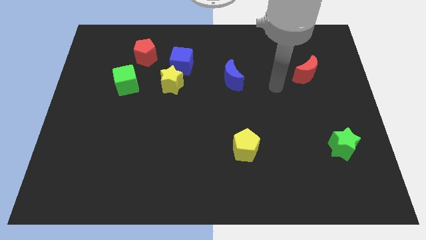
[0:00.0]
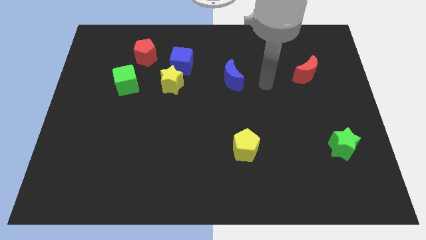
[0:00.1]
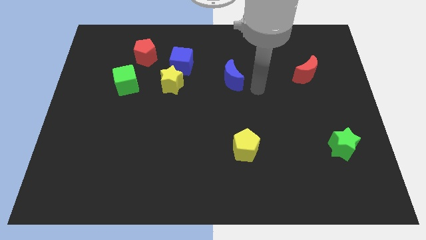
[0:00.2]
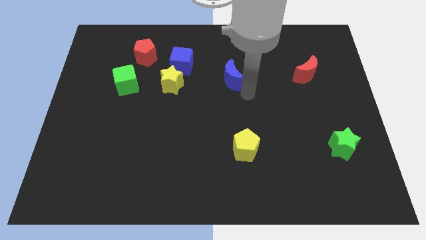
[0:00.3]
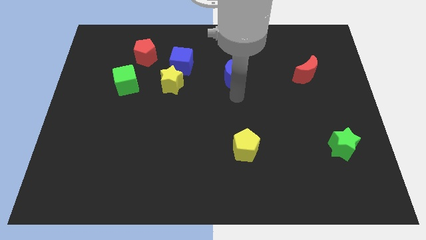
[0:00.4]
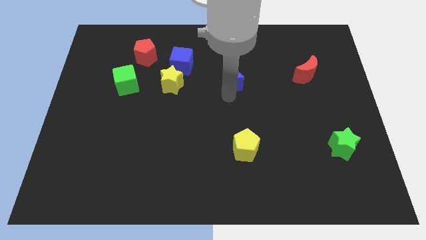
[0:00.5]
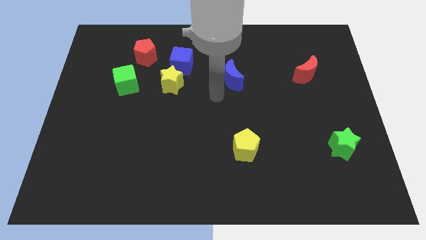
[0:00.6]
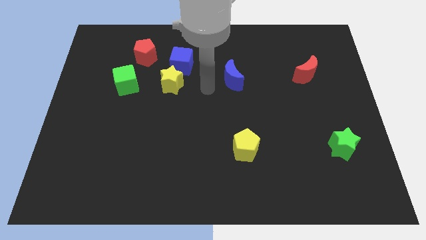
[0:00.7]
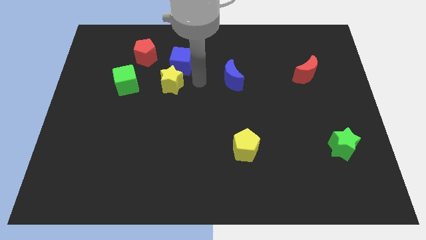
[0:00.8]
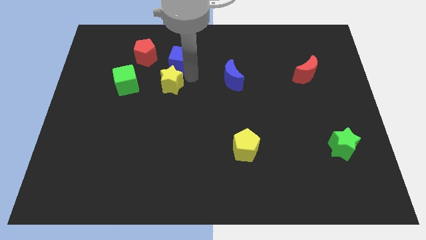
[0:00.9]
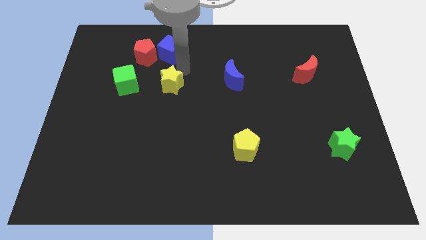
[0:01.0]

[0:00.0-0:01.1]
move the yellow star away from the blue cube

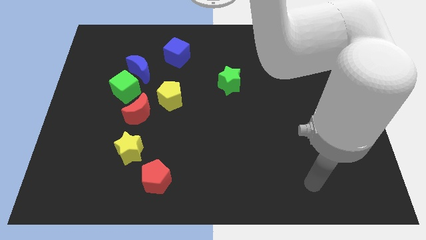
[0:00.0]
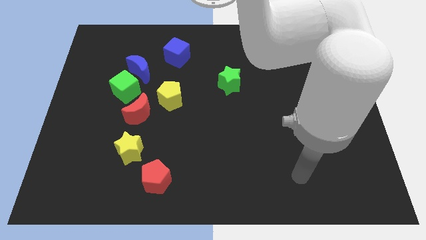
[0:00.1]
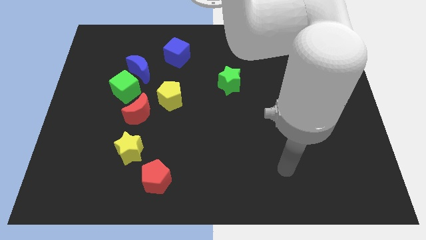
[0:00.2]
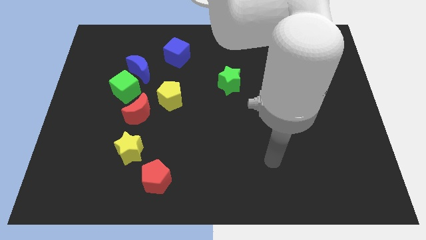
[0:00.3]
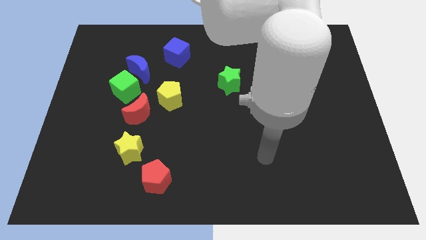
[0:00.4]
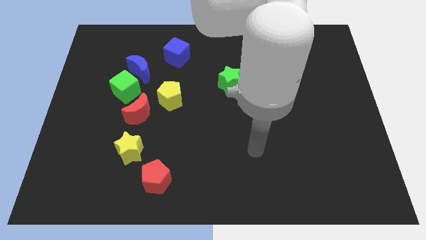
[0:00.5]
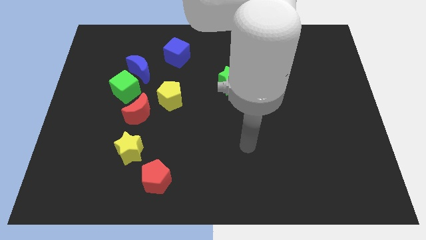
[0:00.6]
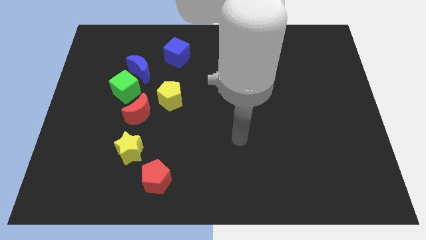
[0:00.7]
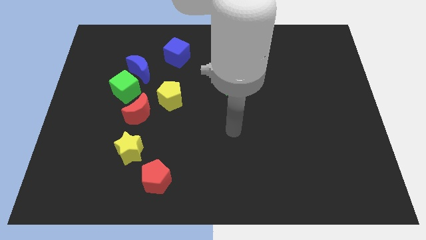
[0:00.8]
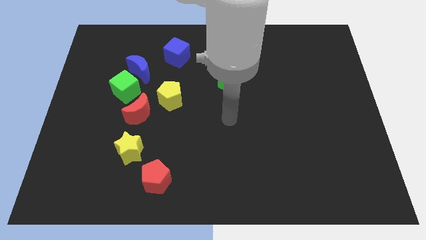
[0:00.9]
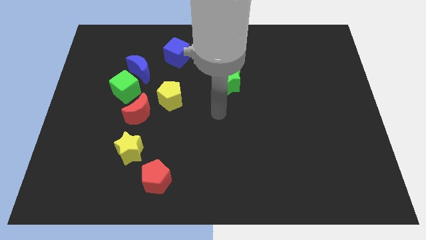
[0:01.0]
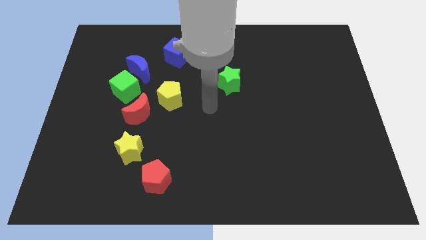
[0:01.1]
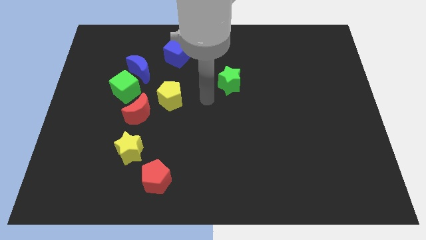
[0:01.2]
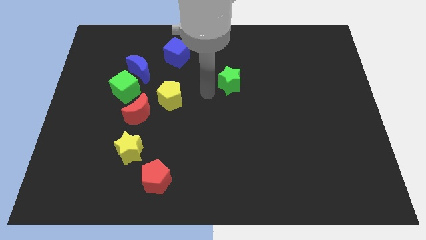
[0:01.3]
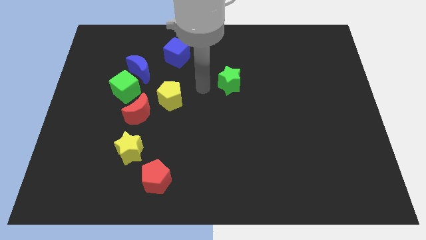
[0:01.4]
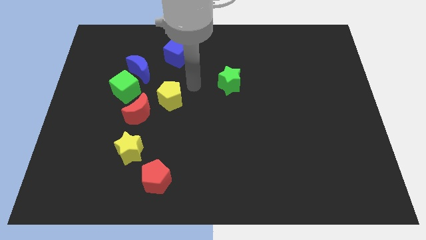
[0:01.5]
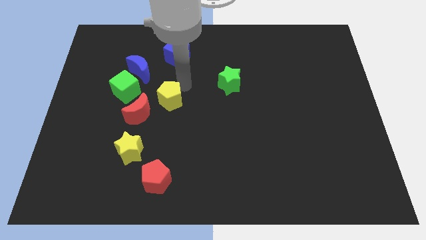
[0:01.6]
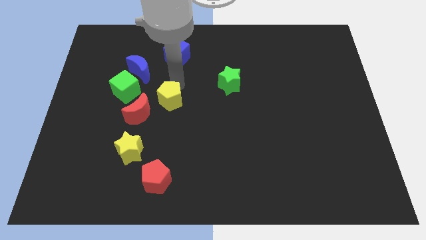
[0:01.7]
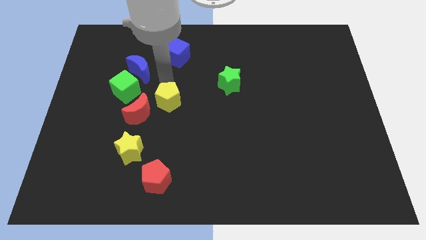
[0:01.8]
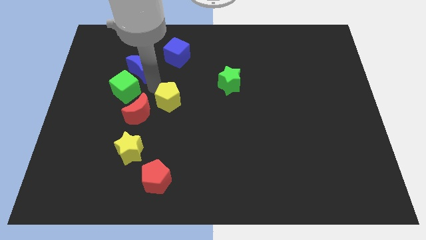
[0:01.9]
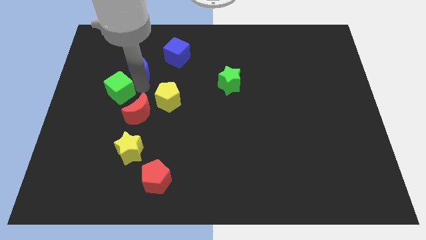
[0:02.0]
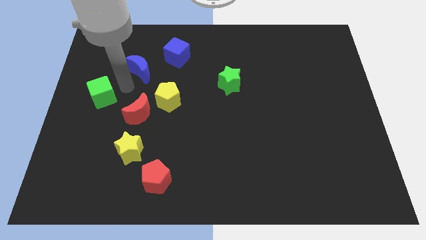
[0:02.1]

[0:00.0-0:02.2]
separate the blue moon from the green cube

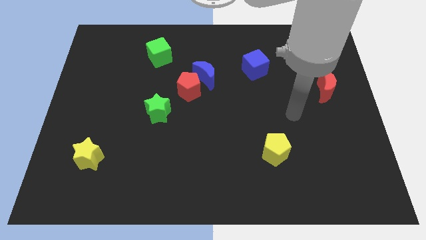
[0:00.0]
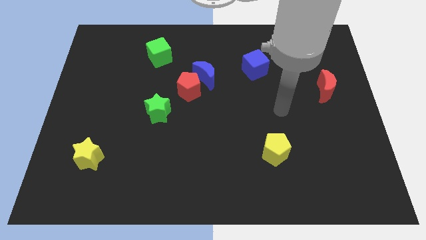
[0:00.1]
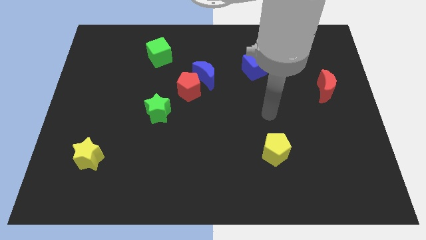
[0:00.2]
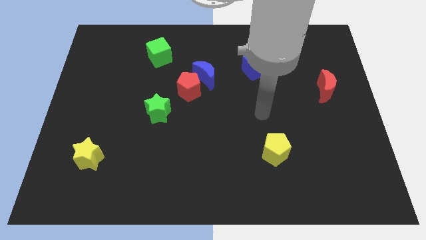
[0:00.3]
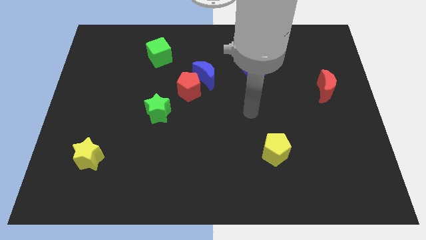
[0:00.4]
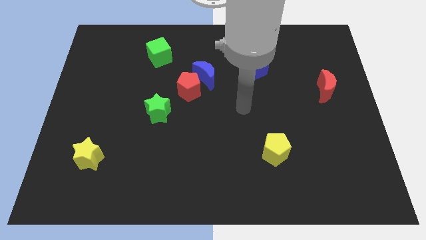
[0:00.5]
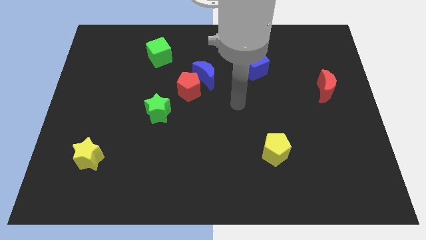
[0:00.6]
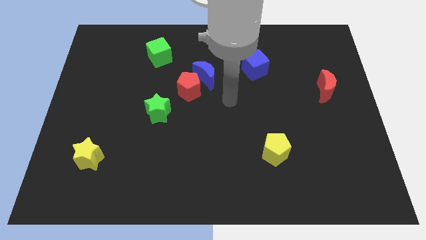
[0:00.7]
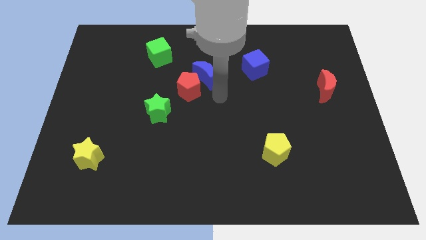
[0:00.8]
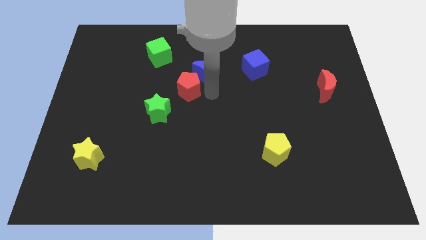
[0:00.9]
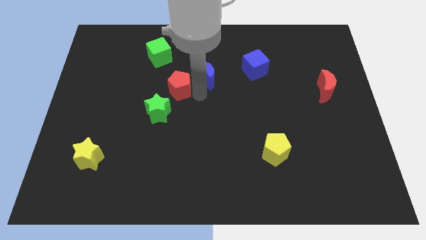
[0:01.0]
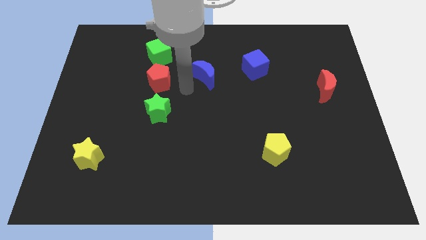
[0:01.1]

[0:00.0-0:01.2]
pull the blue moon apart from the red pentagon

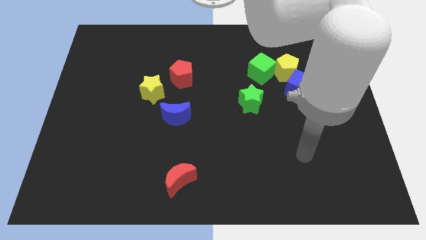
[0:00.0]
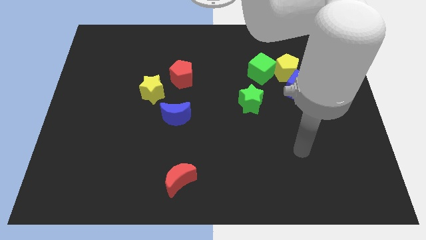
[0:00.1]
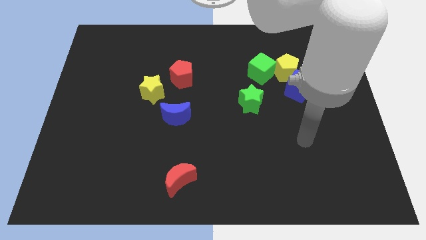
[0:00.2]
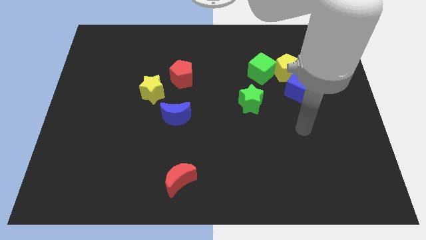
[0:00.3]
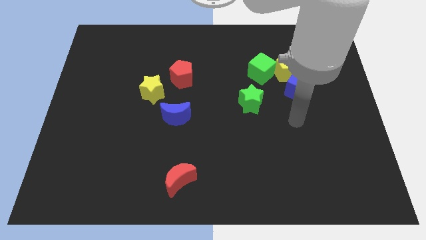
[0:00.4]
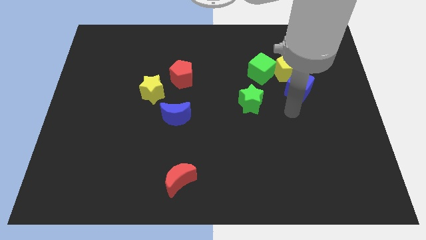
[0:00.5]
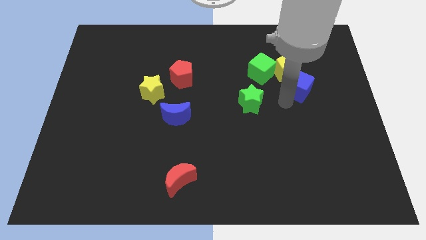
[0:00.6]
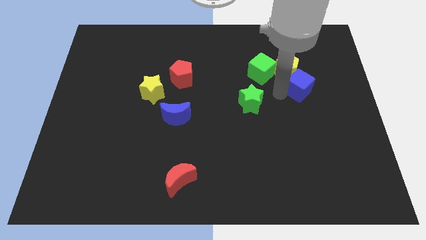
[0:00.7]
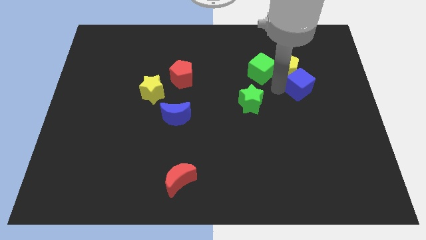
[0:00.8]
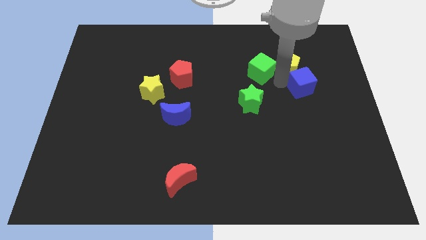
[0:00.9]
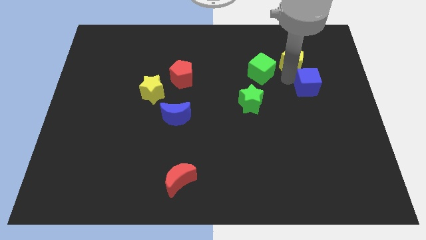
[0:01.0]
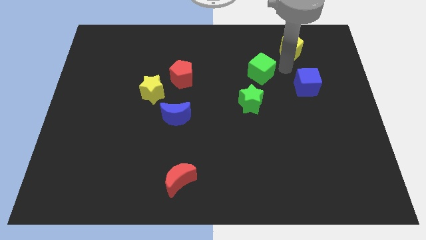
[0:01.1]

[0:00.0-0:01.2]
separate the green cube from the yellow pentagon

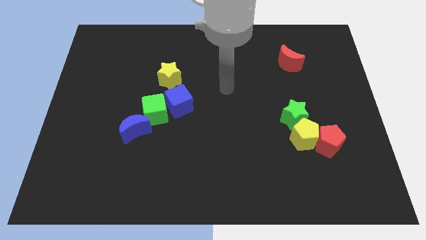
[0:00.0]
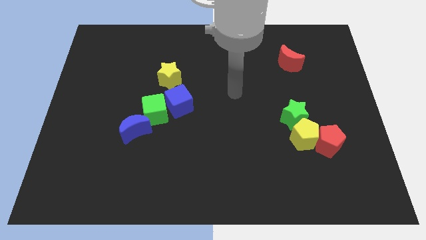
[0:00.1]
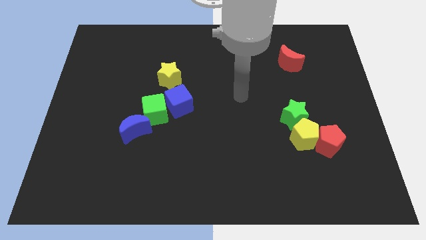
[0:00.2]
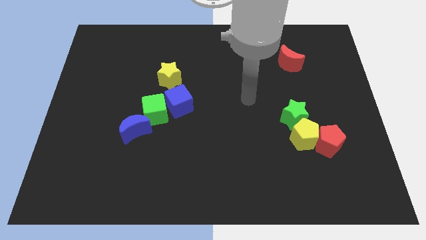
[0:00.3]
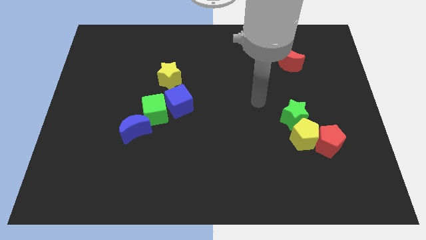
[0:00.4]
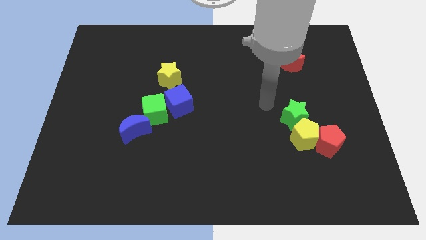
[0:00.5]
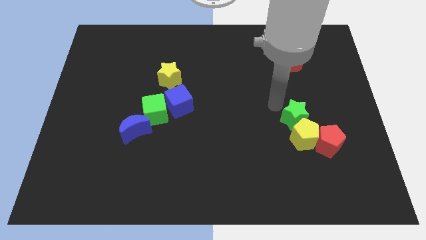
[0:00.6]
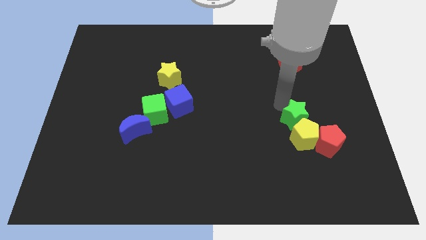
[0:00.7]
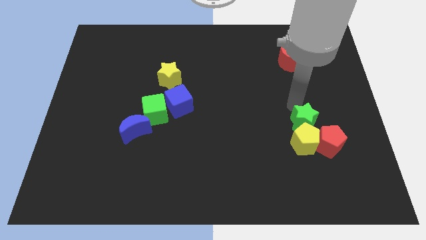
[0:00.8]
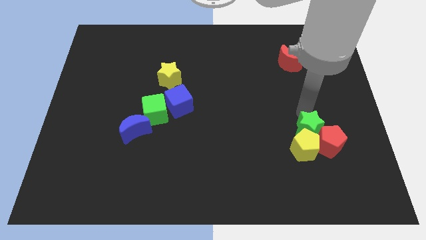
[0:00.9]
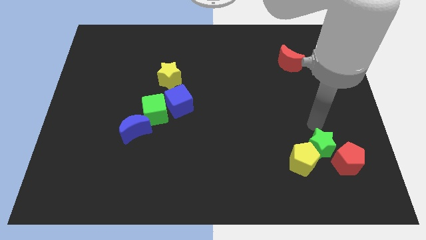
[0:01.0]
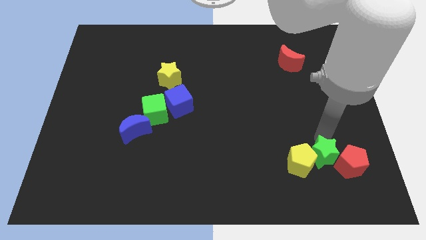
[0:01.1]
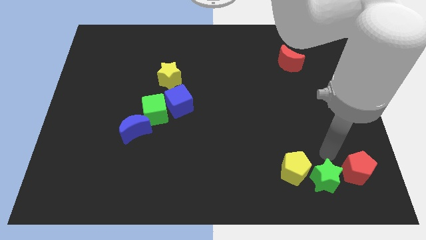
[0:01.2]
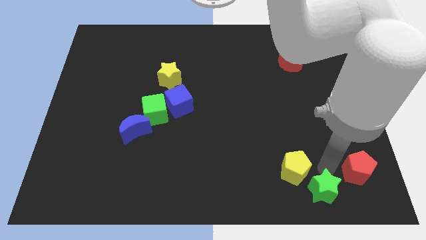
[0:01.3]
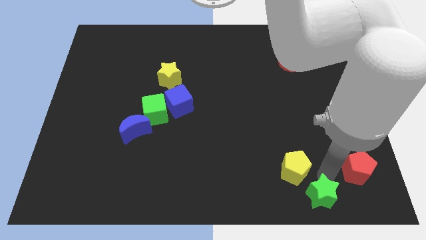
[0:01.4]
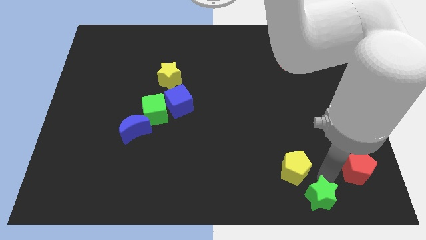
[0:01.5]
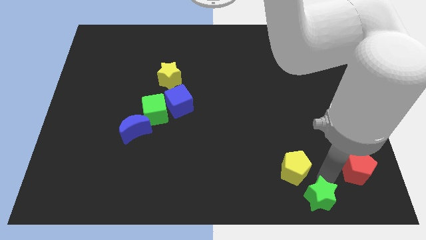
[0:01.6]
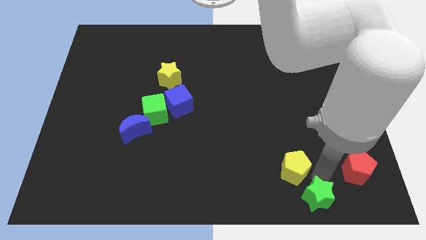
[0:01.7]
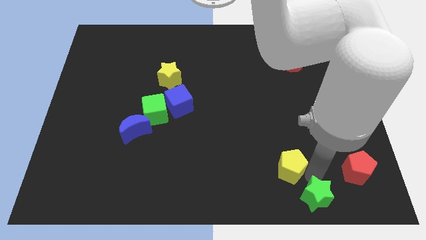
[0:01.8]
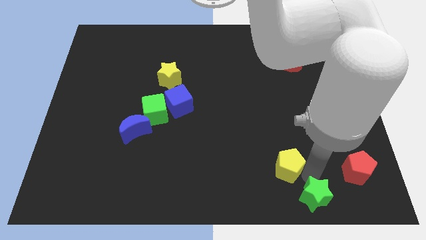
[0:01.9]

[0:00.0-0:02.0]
separate the yellow pentagon from the green star and red pentagon

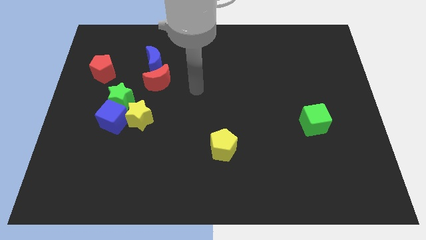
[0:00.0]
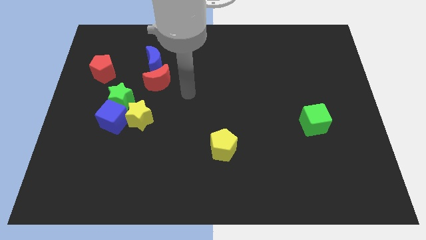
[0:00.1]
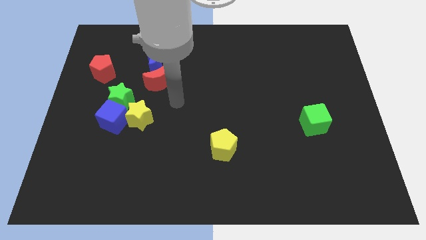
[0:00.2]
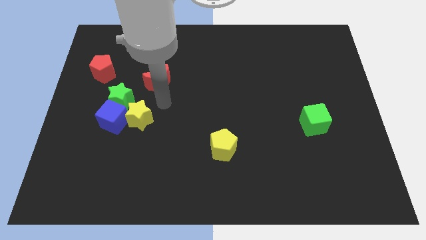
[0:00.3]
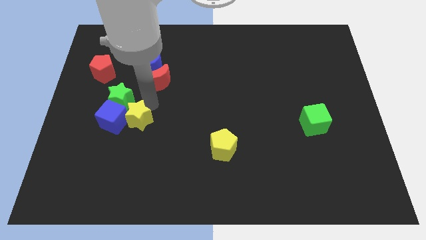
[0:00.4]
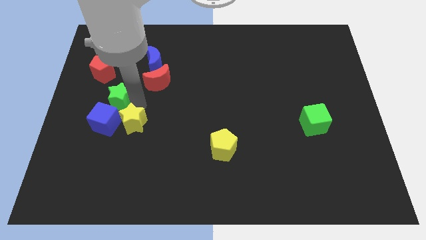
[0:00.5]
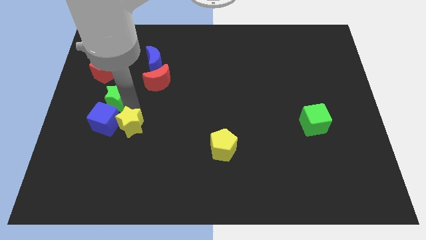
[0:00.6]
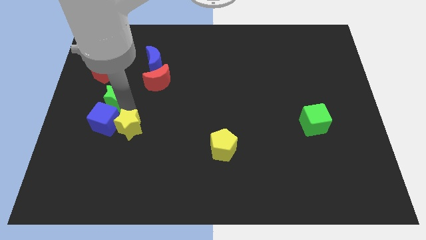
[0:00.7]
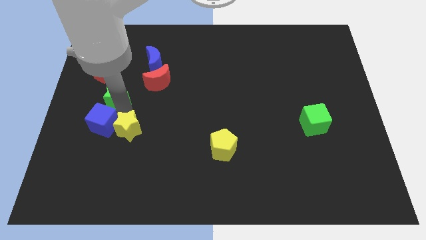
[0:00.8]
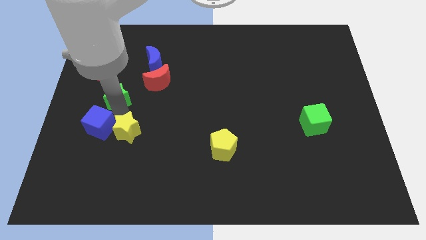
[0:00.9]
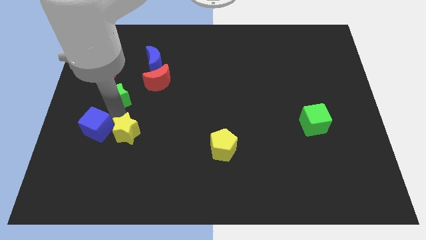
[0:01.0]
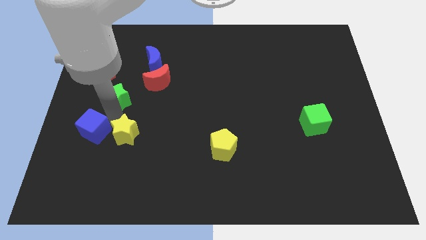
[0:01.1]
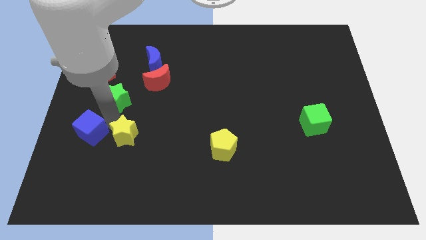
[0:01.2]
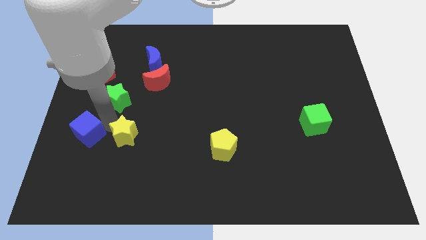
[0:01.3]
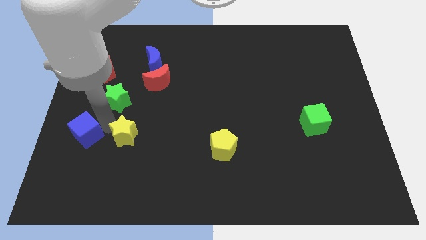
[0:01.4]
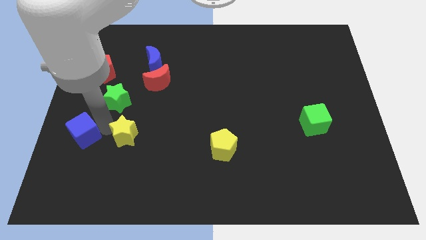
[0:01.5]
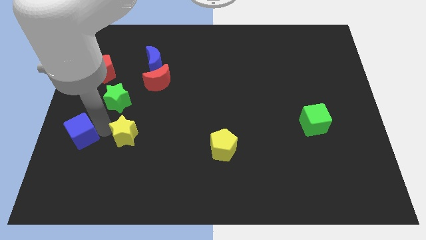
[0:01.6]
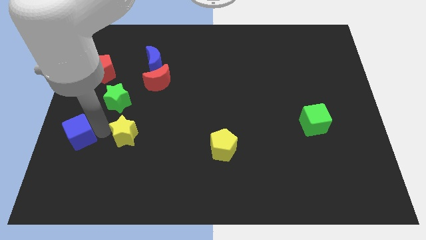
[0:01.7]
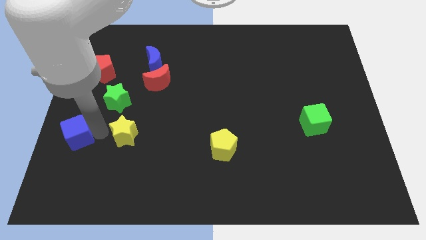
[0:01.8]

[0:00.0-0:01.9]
move the blue cube away from the green star and yellow star
